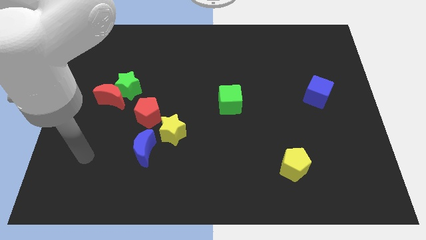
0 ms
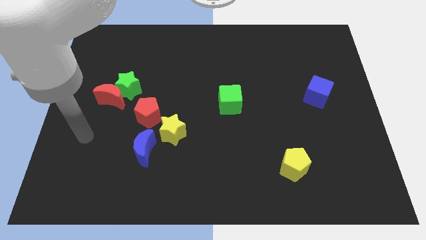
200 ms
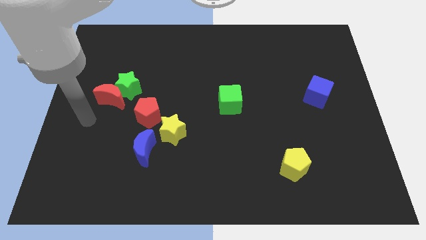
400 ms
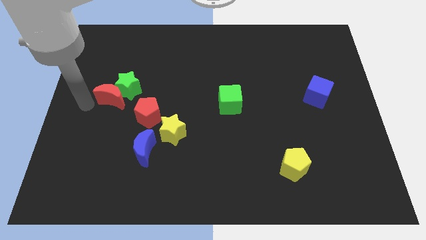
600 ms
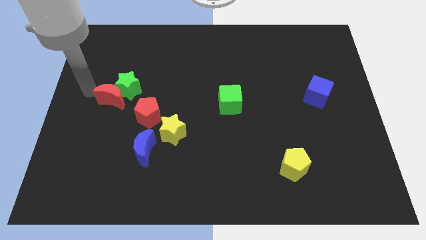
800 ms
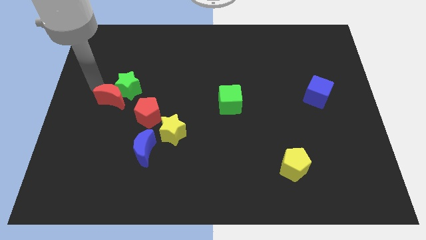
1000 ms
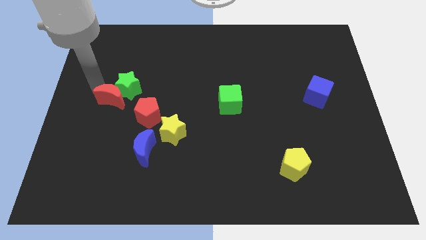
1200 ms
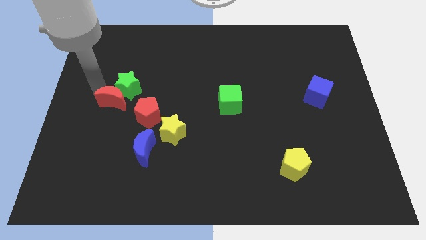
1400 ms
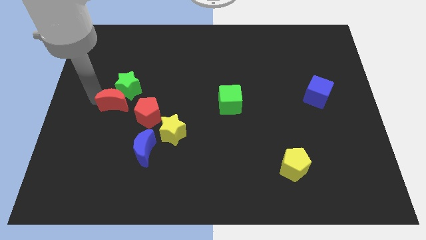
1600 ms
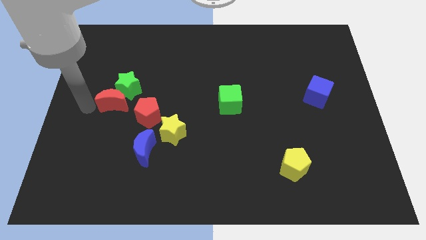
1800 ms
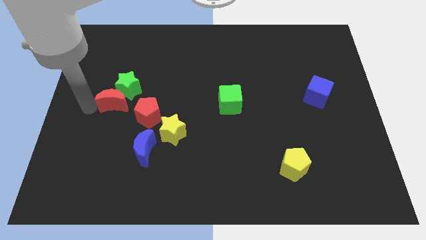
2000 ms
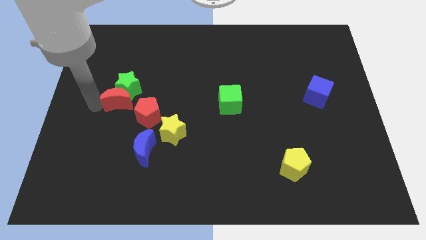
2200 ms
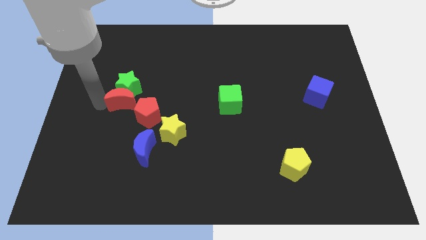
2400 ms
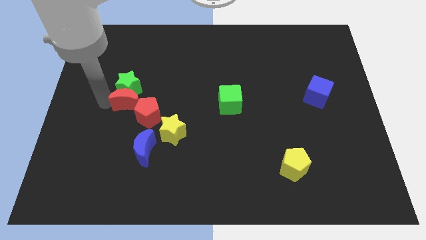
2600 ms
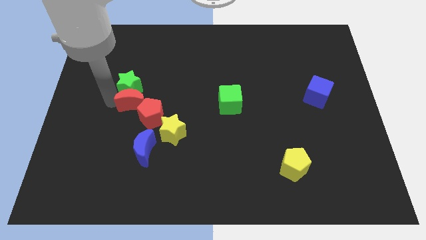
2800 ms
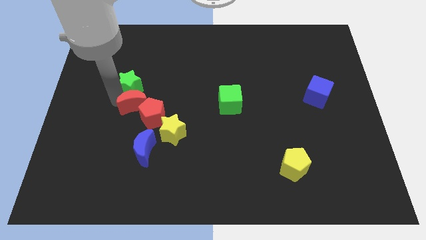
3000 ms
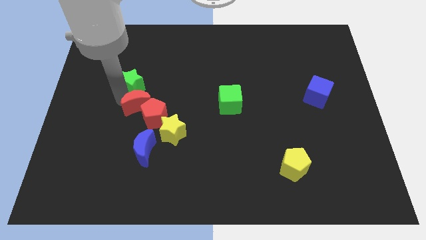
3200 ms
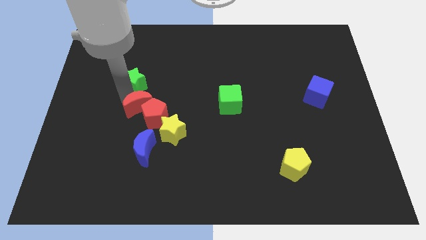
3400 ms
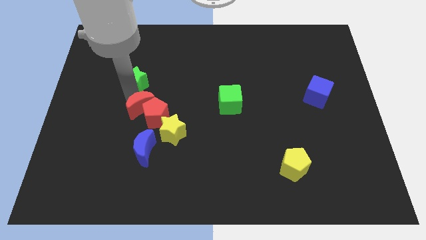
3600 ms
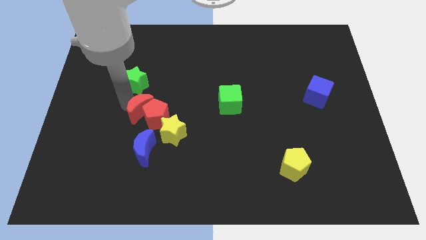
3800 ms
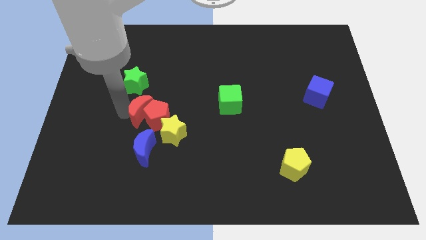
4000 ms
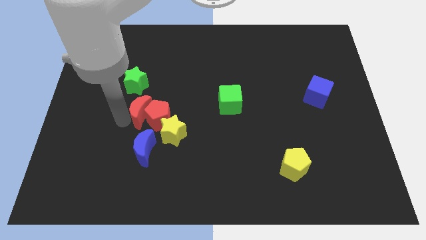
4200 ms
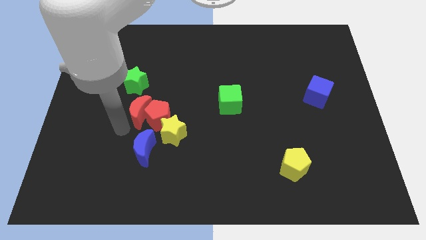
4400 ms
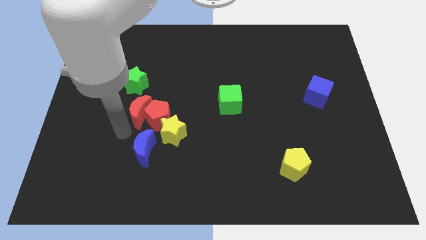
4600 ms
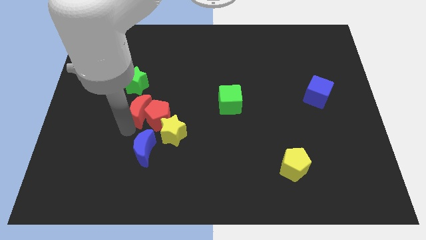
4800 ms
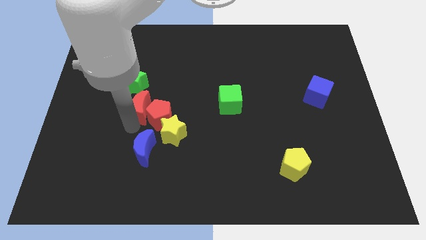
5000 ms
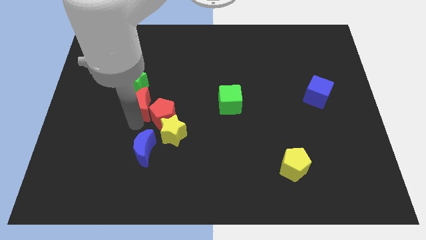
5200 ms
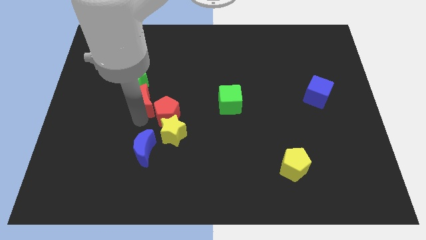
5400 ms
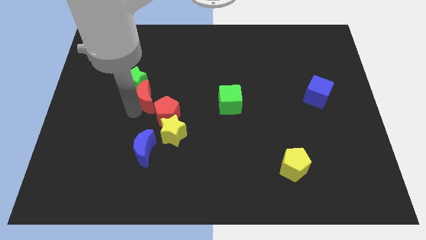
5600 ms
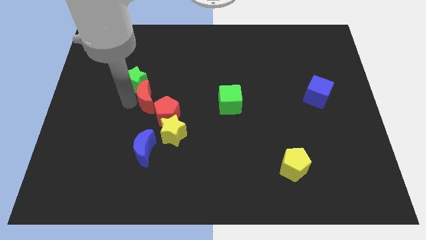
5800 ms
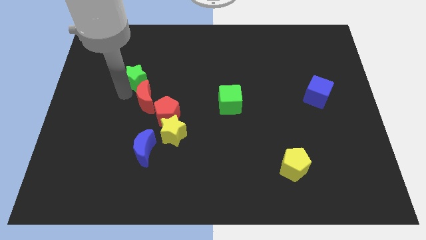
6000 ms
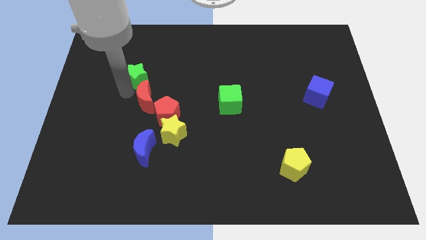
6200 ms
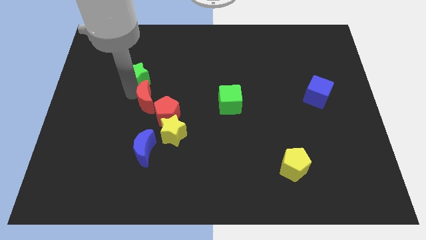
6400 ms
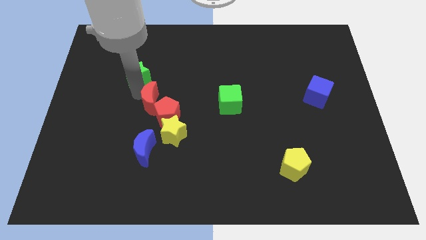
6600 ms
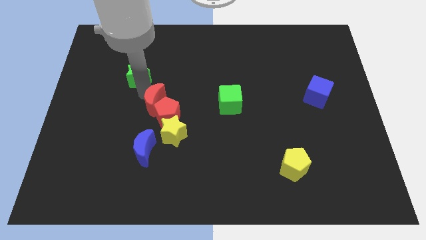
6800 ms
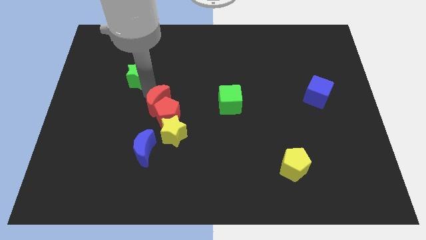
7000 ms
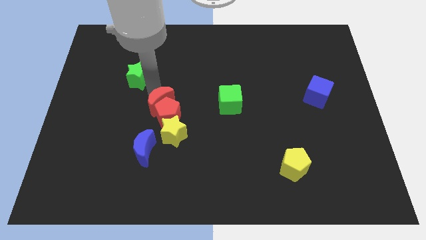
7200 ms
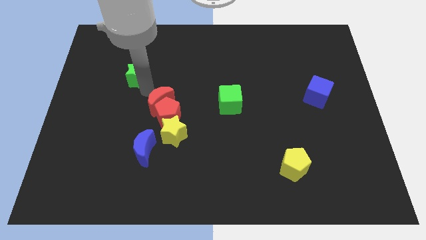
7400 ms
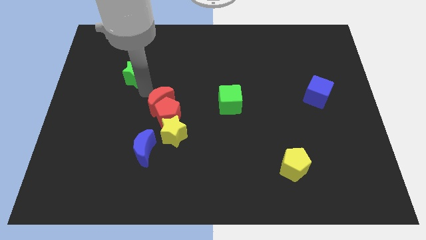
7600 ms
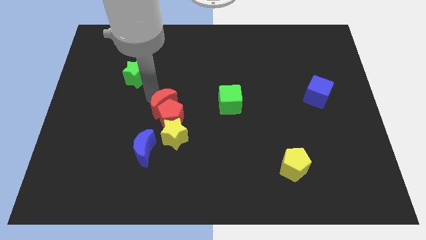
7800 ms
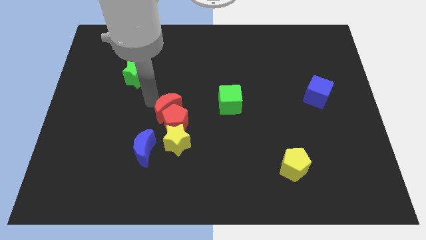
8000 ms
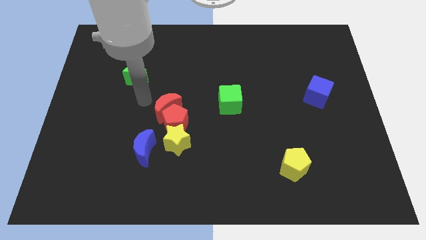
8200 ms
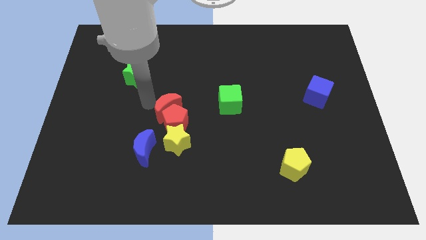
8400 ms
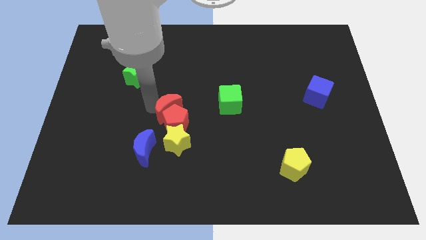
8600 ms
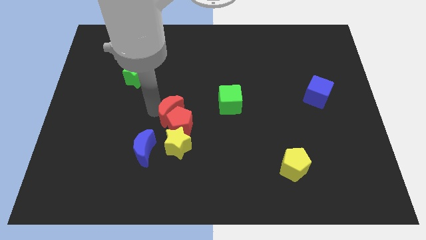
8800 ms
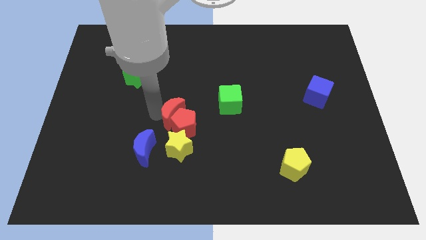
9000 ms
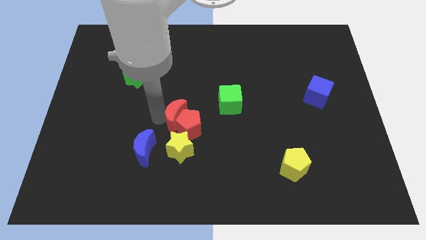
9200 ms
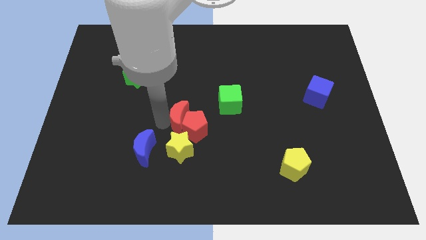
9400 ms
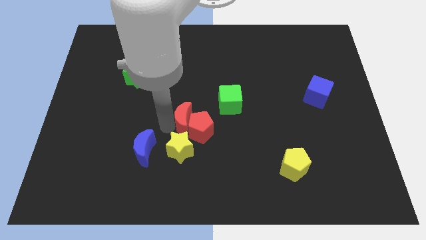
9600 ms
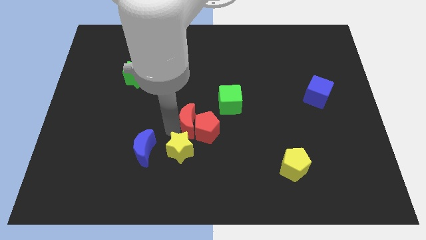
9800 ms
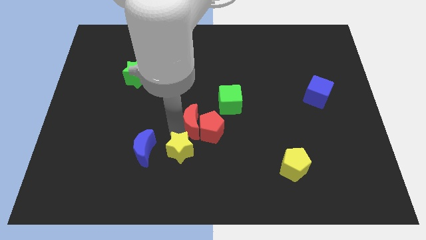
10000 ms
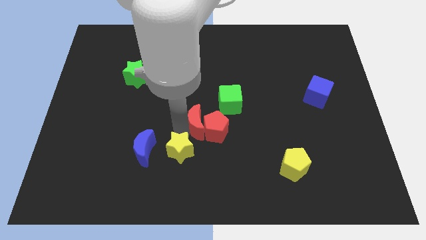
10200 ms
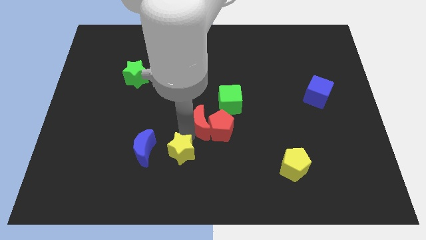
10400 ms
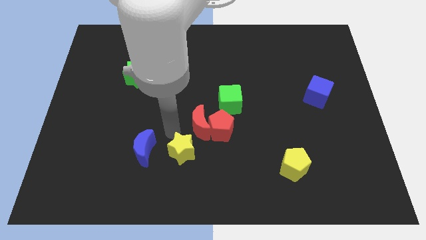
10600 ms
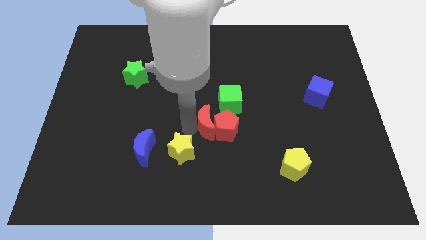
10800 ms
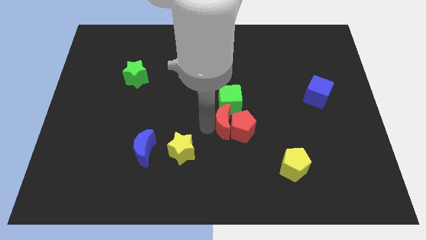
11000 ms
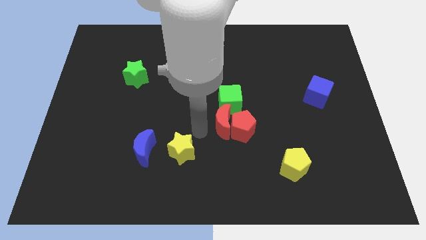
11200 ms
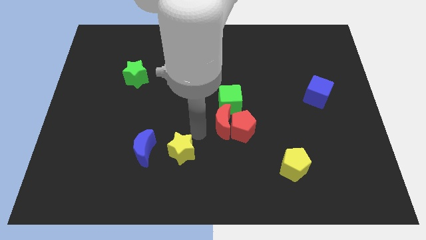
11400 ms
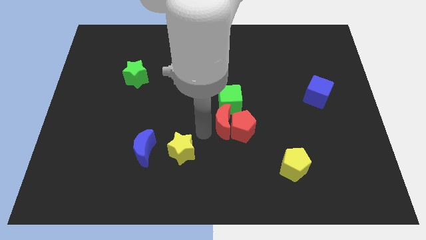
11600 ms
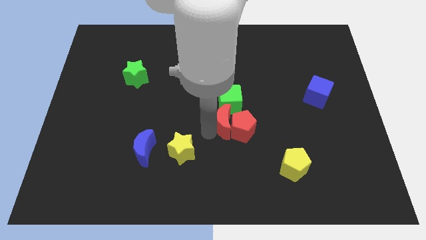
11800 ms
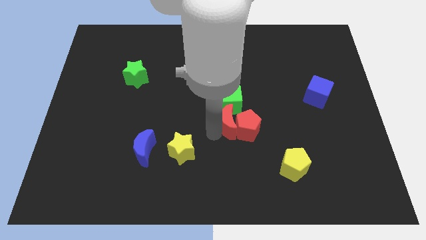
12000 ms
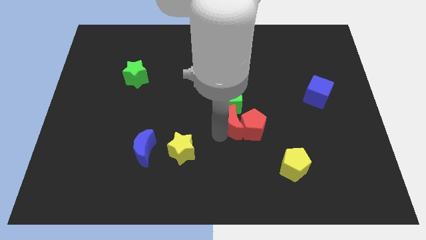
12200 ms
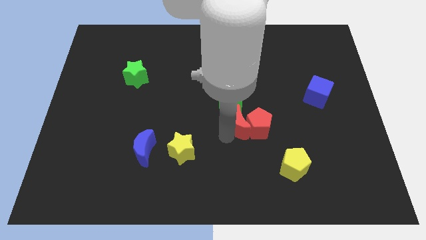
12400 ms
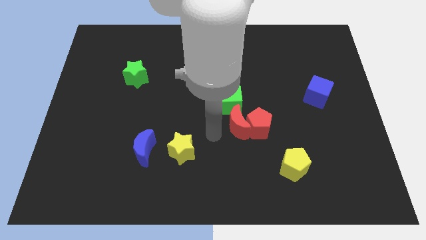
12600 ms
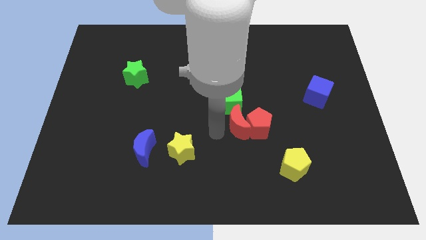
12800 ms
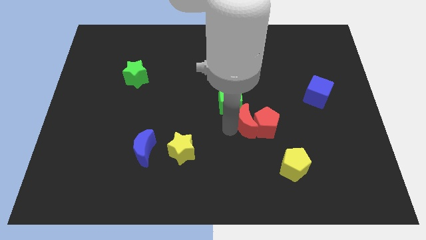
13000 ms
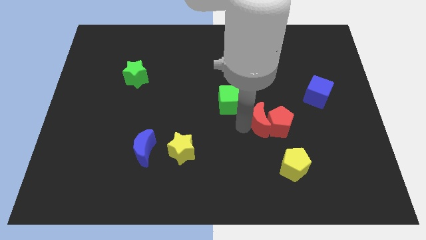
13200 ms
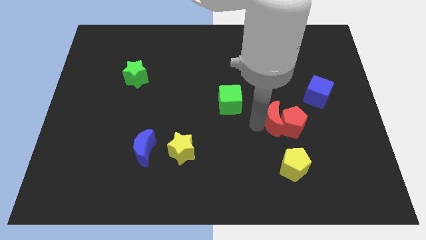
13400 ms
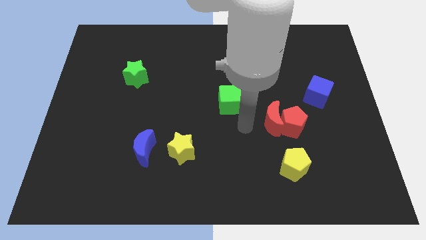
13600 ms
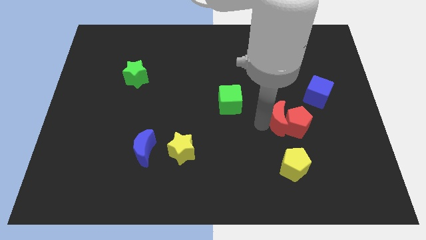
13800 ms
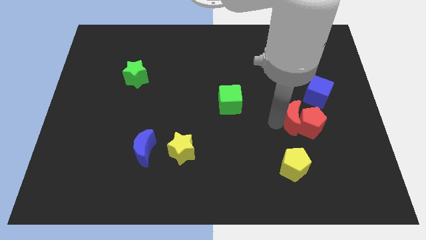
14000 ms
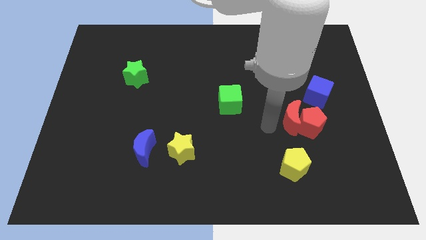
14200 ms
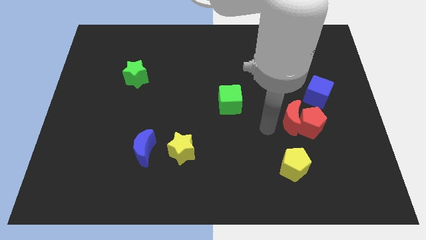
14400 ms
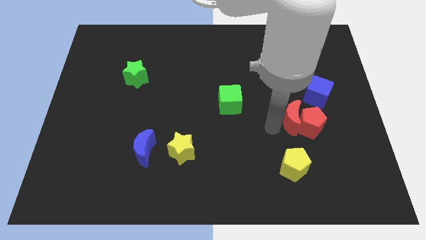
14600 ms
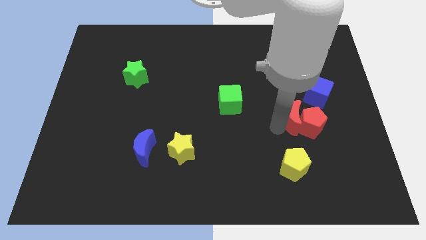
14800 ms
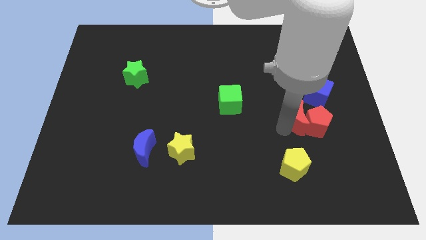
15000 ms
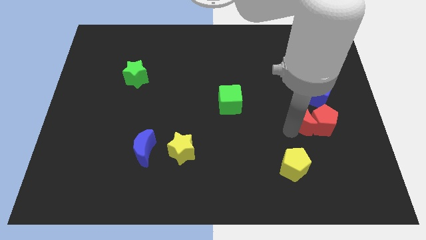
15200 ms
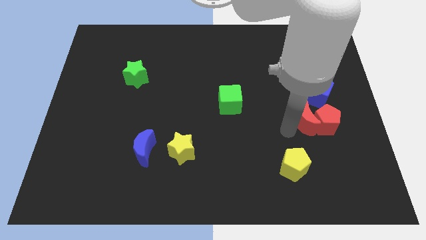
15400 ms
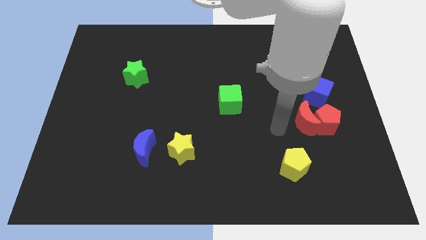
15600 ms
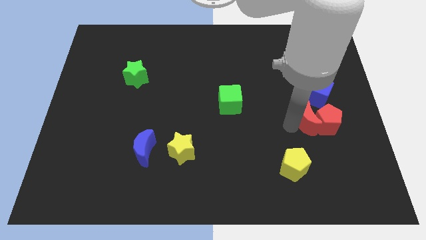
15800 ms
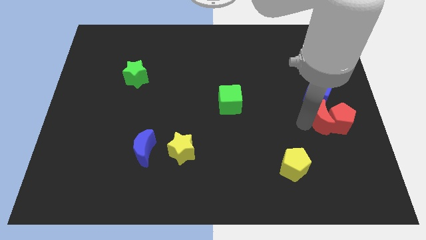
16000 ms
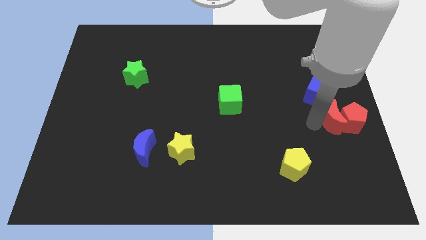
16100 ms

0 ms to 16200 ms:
move the red moon to the right side
